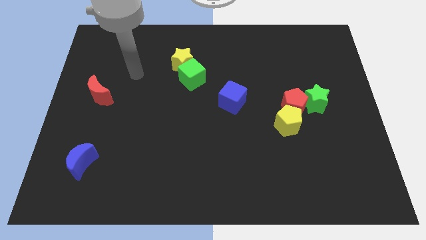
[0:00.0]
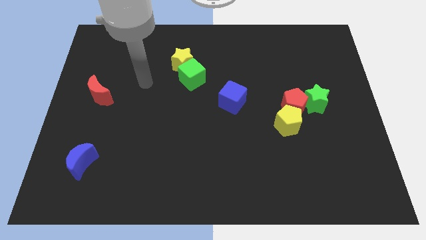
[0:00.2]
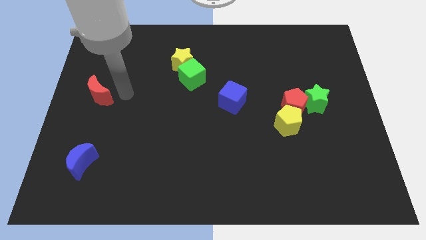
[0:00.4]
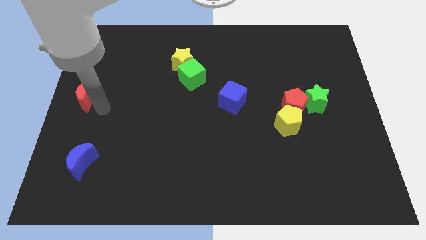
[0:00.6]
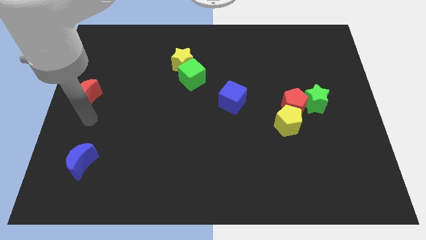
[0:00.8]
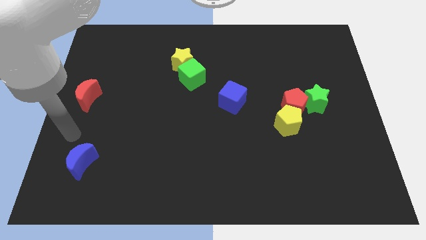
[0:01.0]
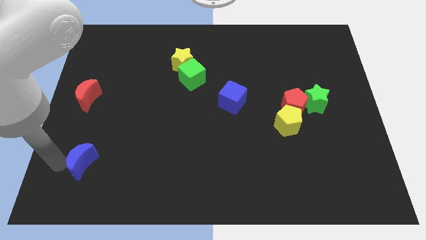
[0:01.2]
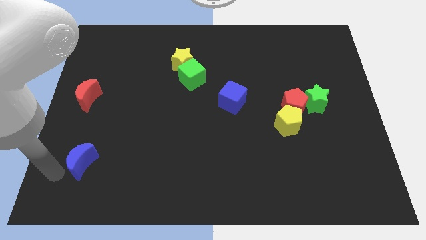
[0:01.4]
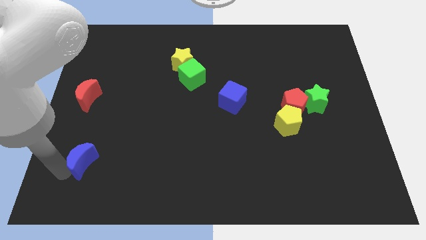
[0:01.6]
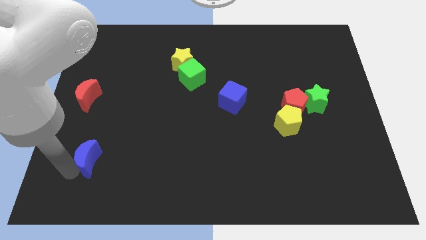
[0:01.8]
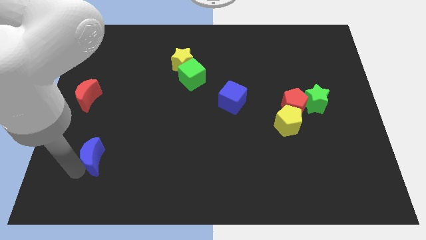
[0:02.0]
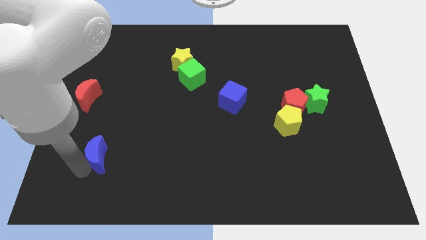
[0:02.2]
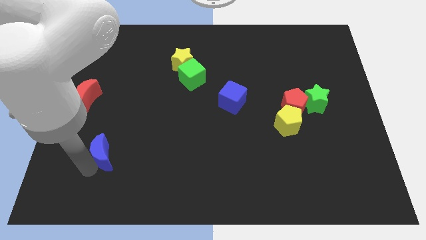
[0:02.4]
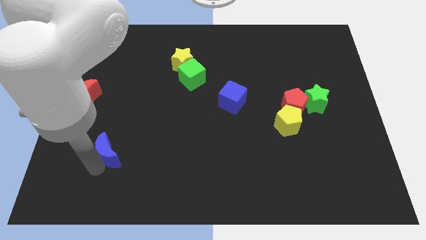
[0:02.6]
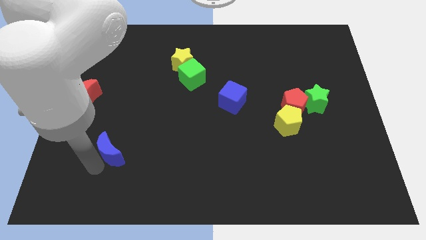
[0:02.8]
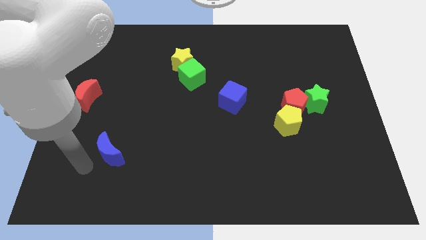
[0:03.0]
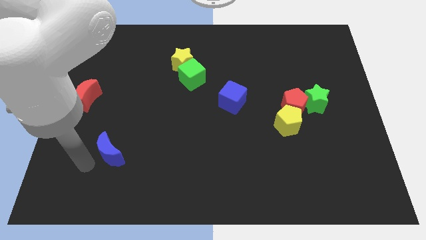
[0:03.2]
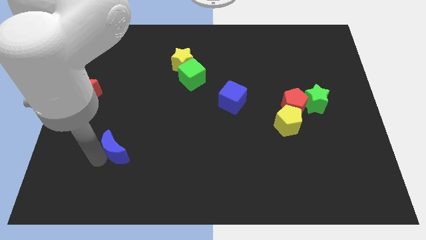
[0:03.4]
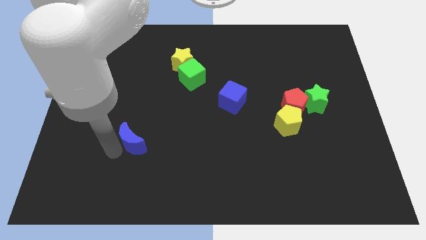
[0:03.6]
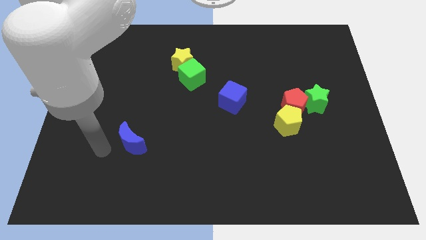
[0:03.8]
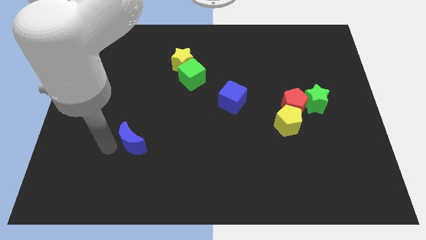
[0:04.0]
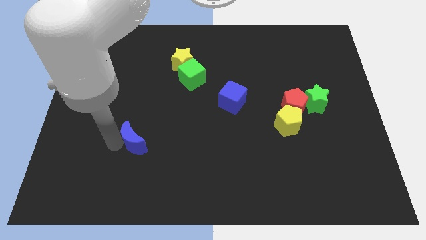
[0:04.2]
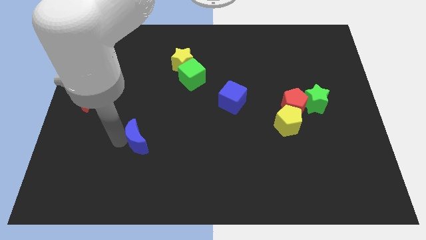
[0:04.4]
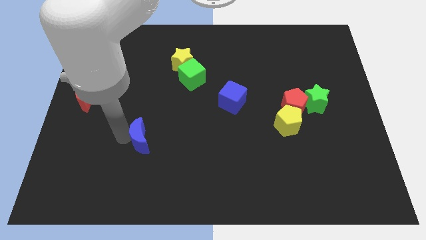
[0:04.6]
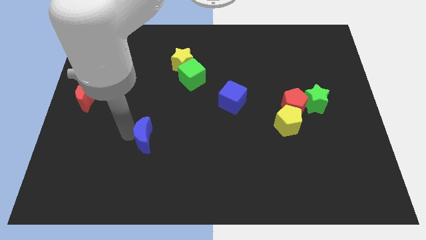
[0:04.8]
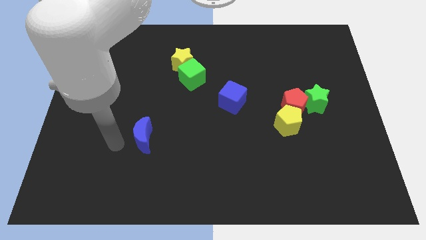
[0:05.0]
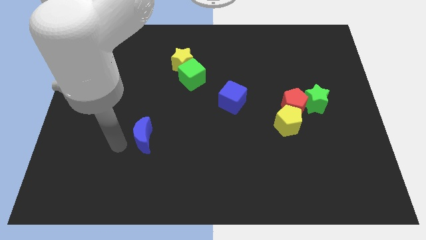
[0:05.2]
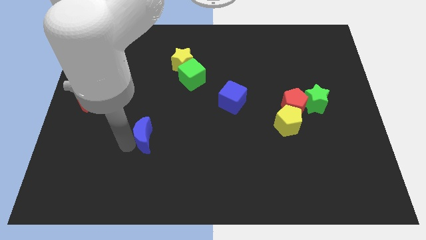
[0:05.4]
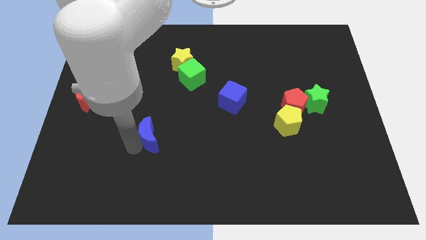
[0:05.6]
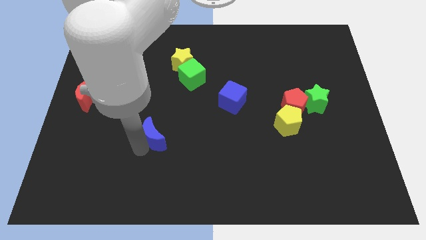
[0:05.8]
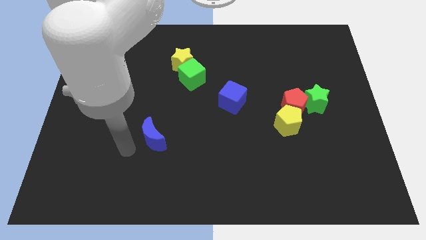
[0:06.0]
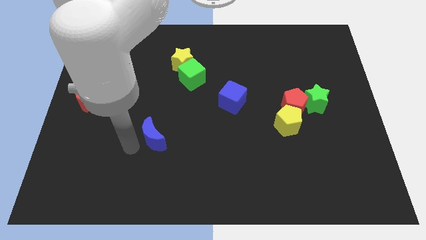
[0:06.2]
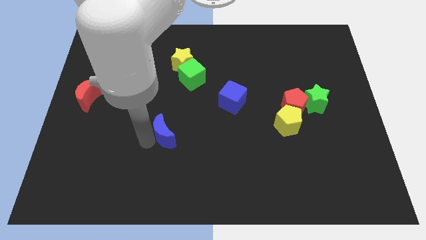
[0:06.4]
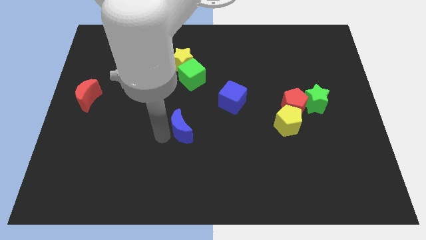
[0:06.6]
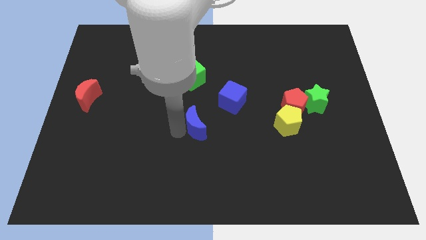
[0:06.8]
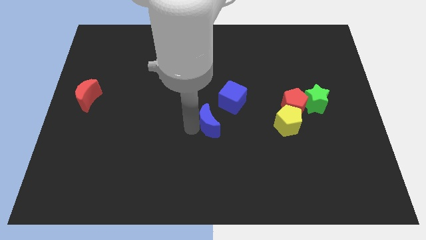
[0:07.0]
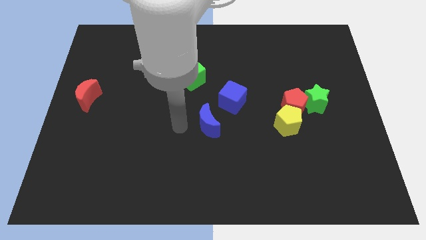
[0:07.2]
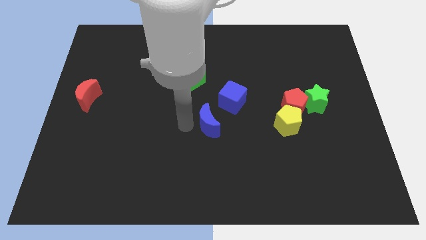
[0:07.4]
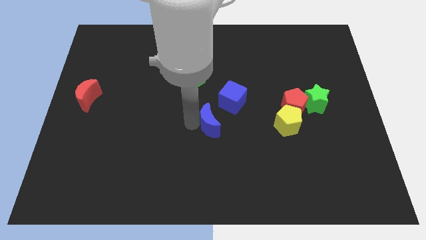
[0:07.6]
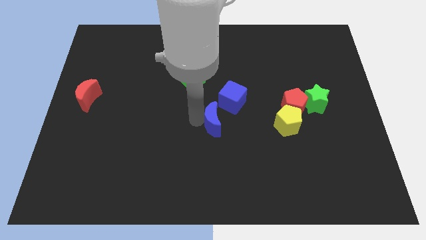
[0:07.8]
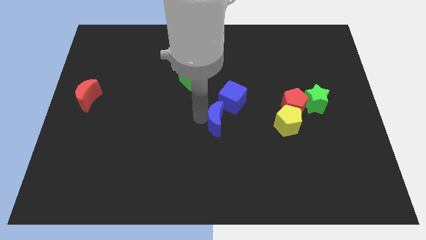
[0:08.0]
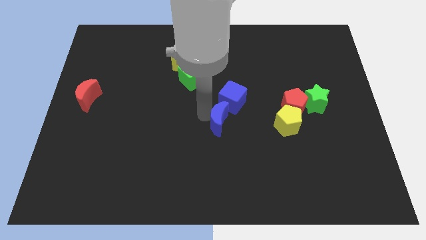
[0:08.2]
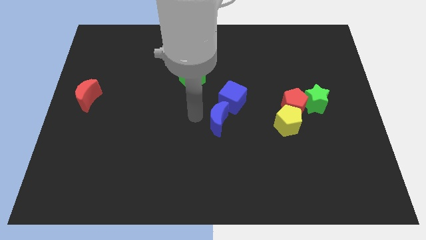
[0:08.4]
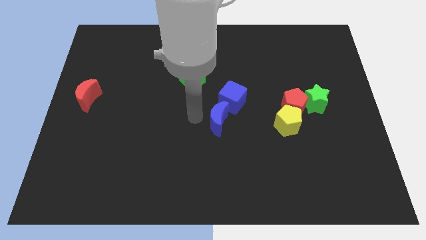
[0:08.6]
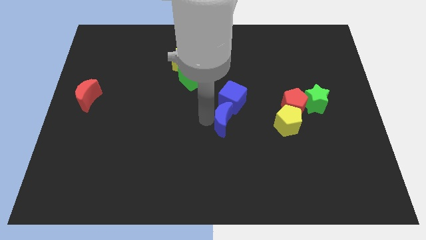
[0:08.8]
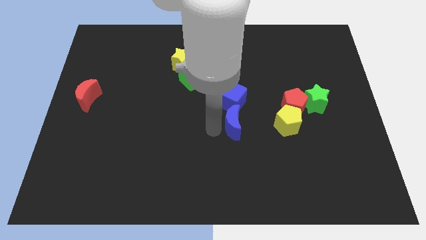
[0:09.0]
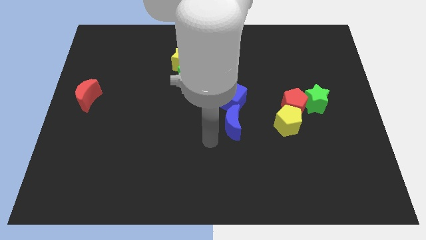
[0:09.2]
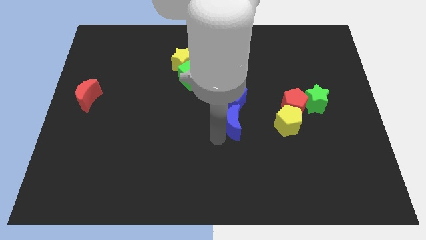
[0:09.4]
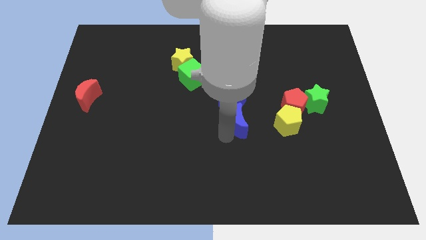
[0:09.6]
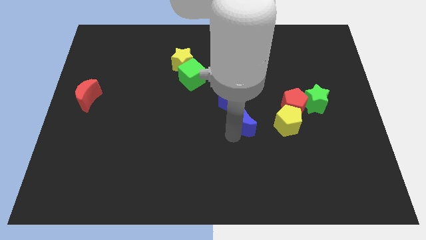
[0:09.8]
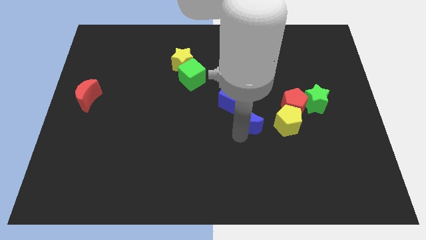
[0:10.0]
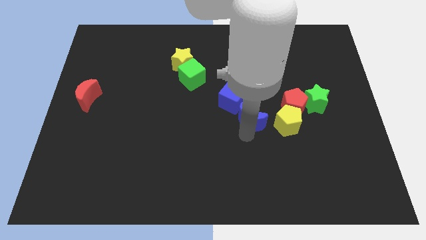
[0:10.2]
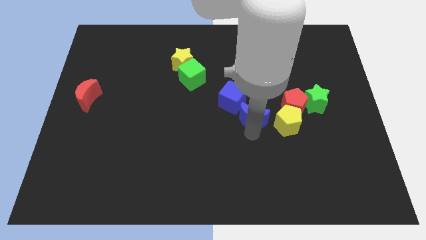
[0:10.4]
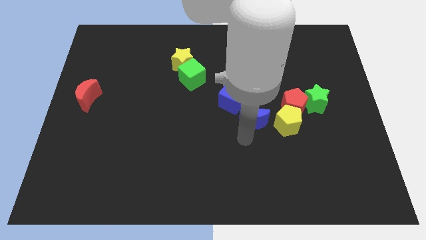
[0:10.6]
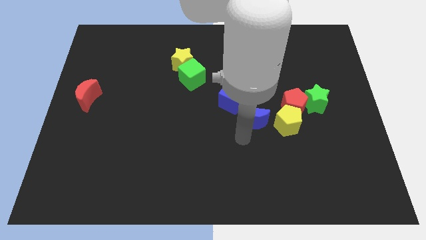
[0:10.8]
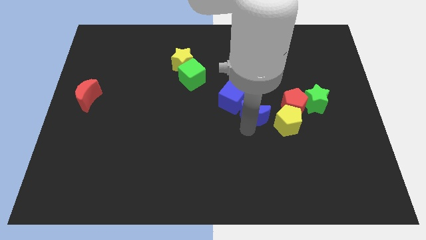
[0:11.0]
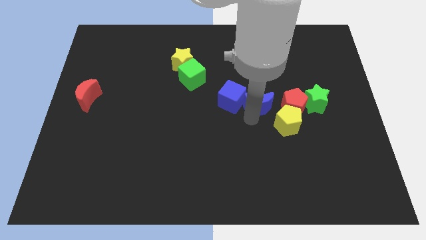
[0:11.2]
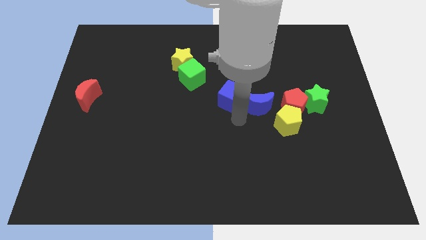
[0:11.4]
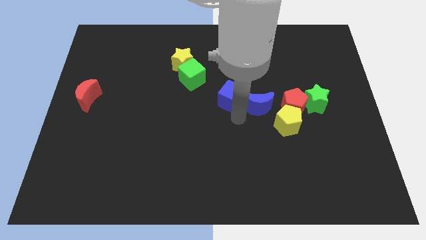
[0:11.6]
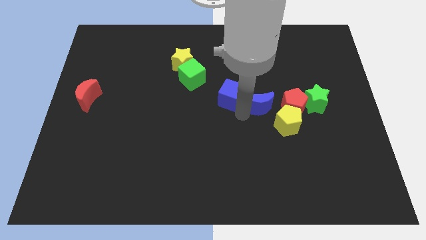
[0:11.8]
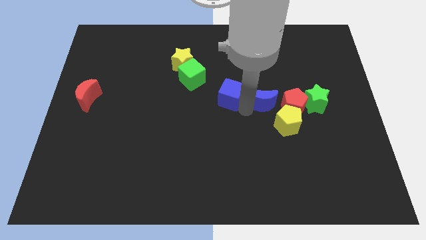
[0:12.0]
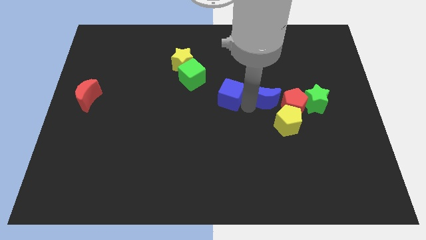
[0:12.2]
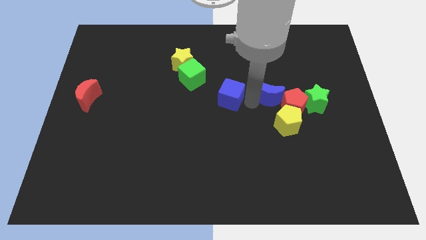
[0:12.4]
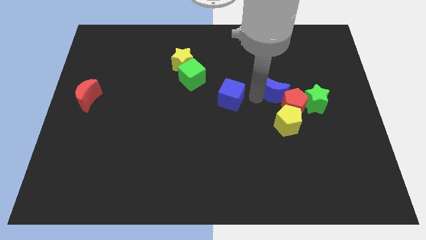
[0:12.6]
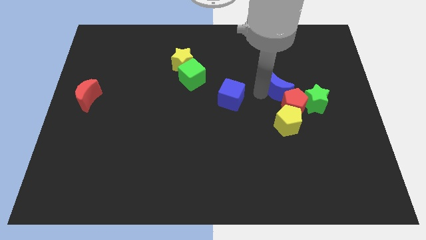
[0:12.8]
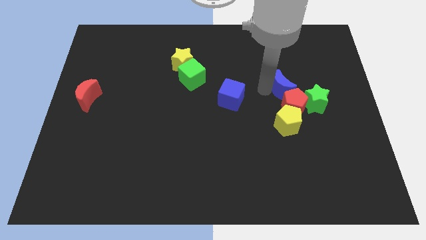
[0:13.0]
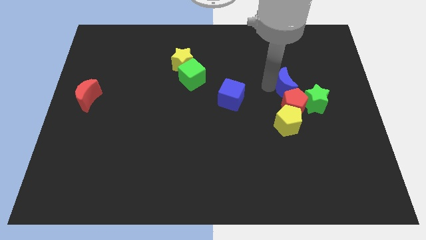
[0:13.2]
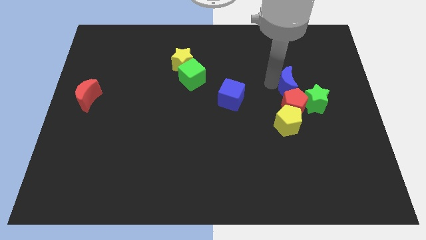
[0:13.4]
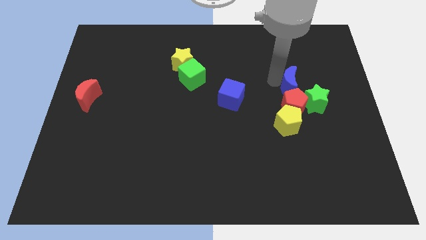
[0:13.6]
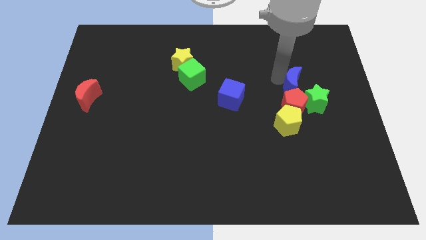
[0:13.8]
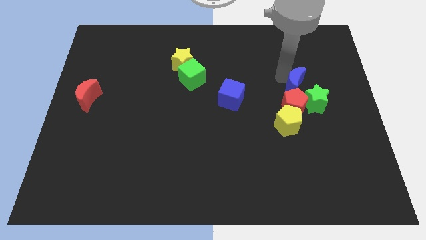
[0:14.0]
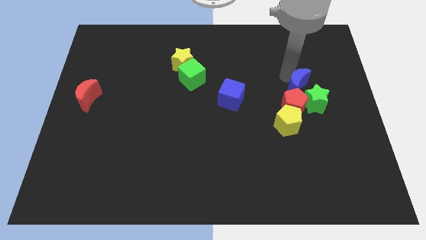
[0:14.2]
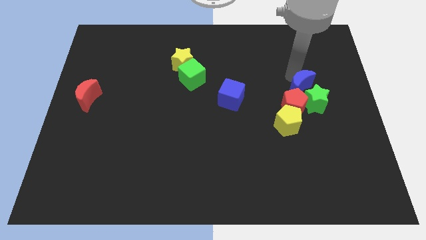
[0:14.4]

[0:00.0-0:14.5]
slide the blue moon towards the green star
